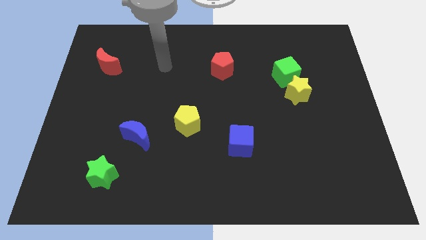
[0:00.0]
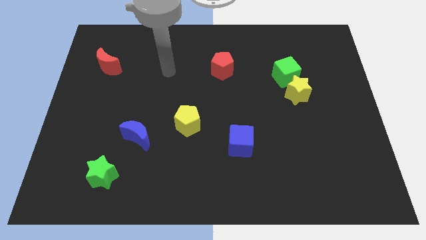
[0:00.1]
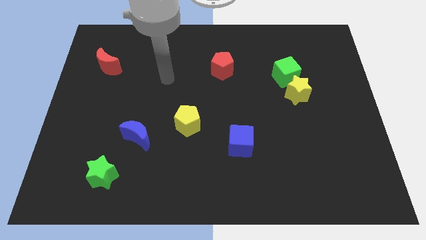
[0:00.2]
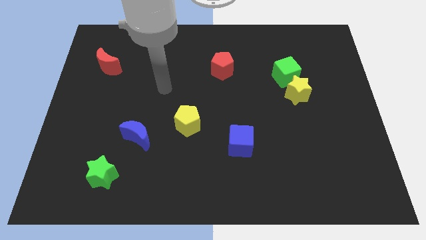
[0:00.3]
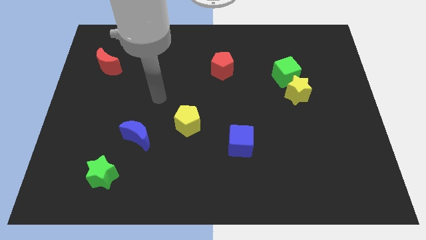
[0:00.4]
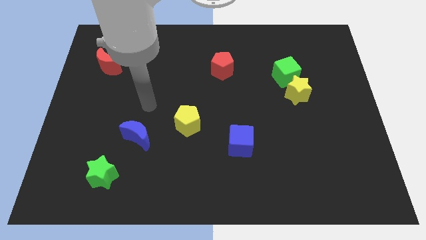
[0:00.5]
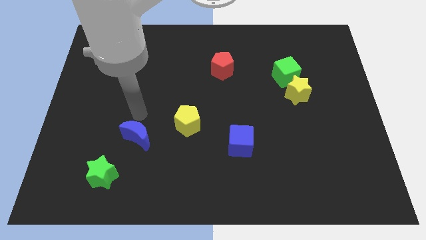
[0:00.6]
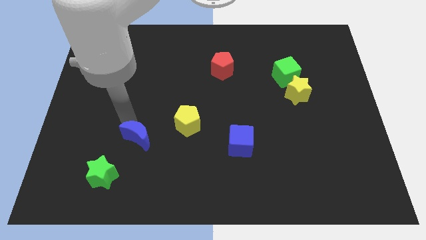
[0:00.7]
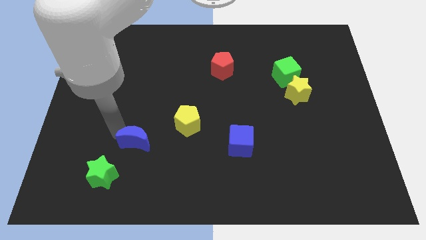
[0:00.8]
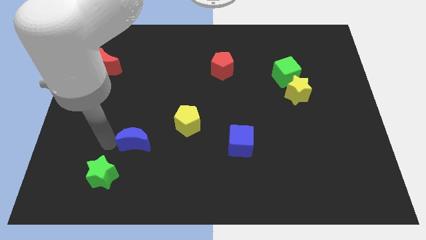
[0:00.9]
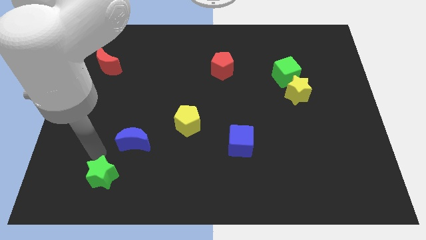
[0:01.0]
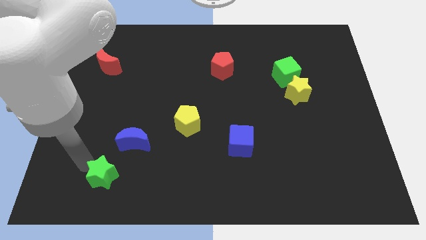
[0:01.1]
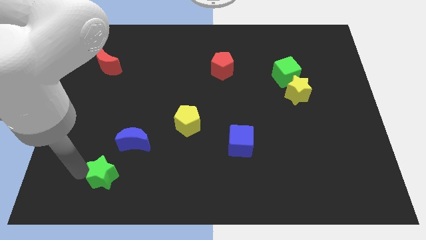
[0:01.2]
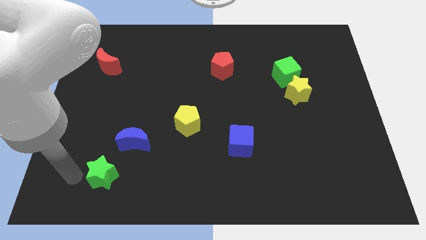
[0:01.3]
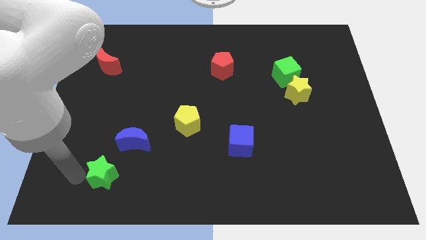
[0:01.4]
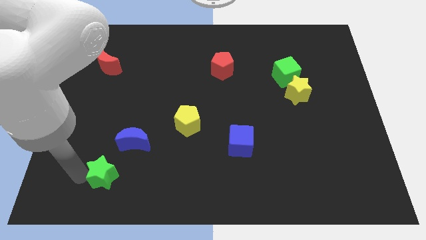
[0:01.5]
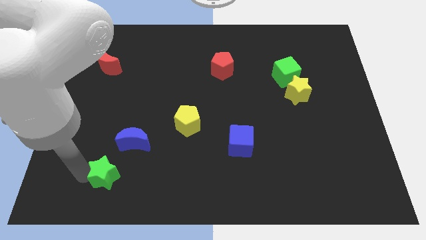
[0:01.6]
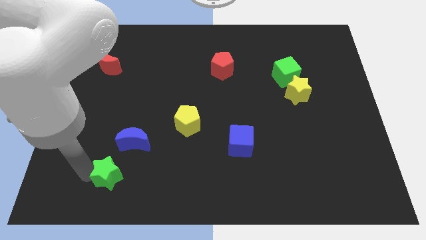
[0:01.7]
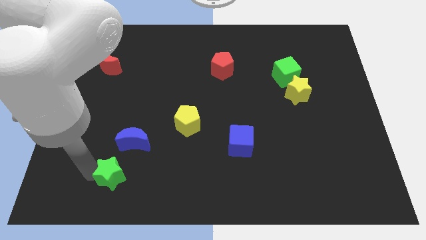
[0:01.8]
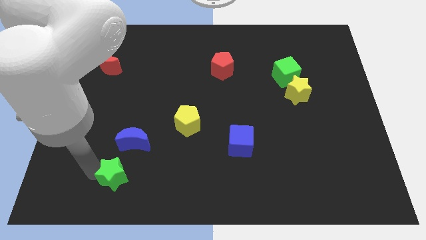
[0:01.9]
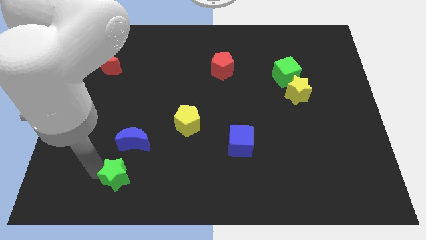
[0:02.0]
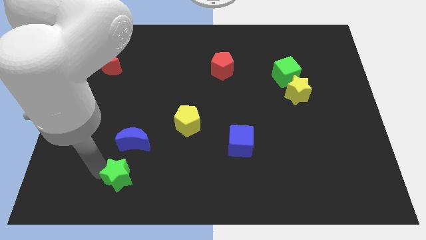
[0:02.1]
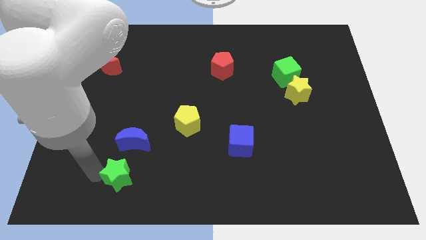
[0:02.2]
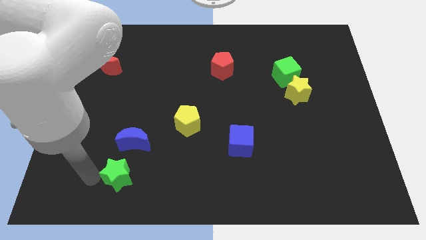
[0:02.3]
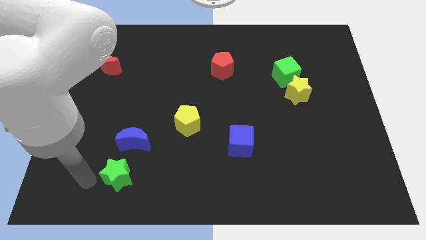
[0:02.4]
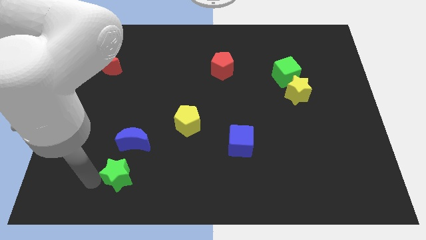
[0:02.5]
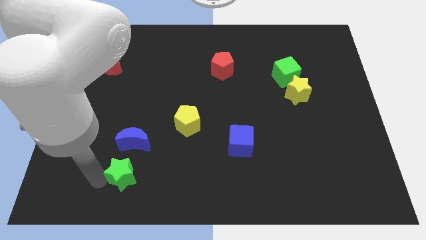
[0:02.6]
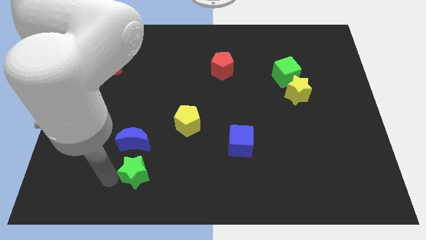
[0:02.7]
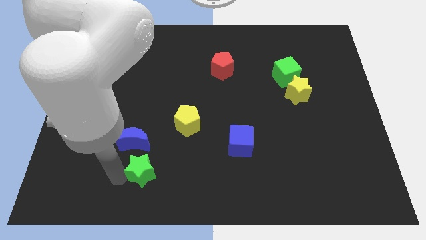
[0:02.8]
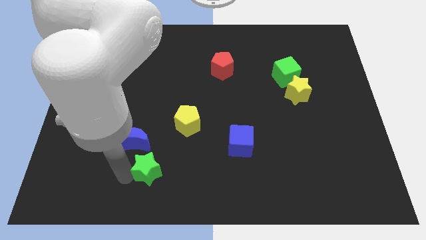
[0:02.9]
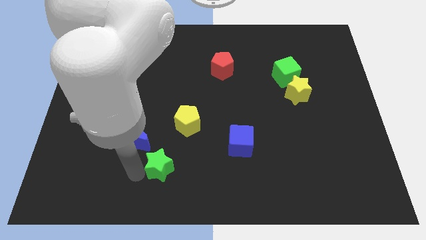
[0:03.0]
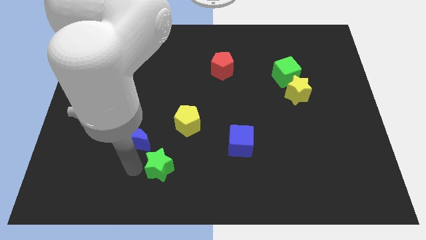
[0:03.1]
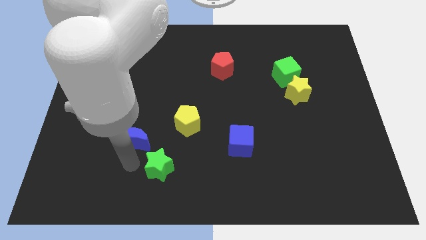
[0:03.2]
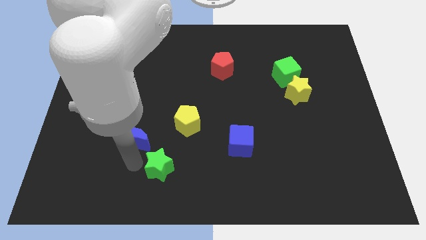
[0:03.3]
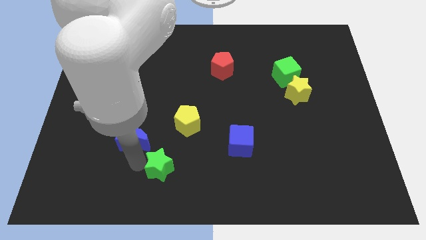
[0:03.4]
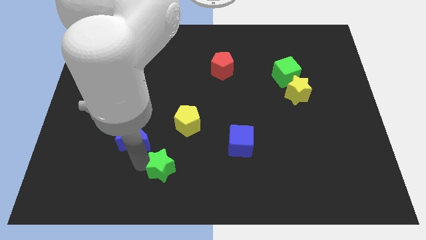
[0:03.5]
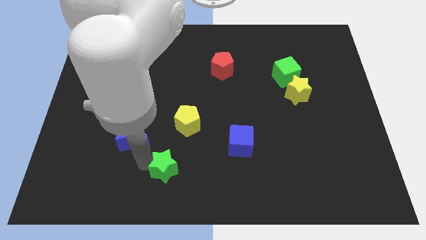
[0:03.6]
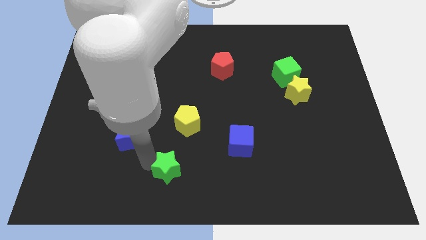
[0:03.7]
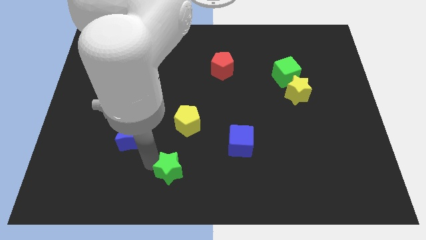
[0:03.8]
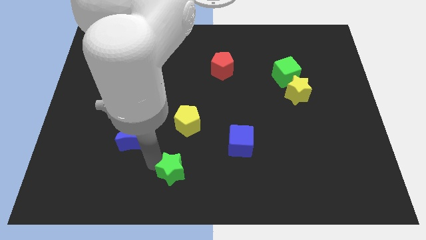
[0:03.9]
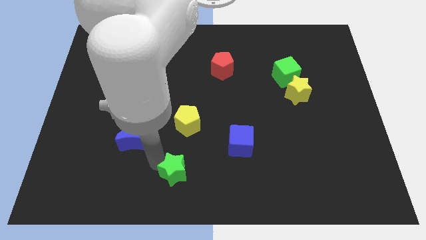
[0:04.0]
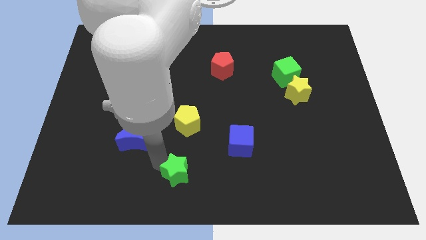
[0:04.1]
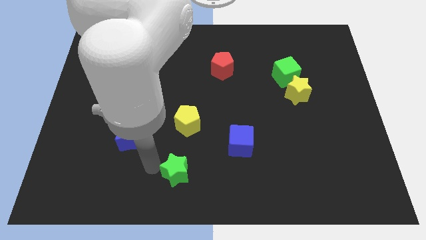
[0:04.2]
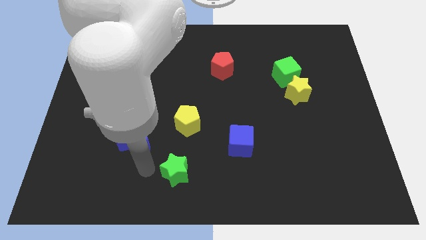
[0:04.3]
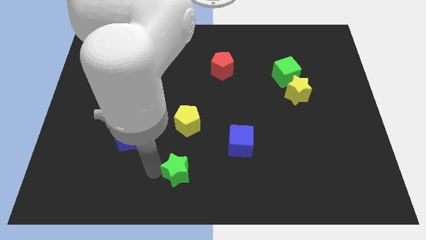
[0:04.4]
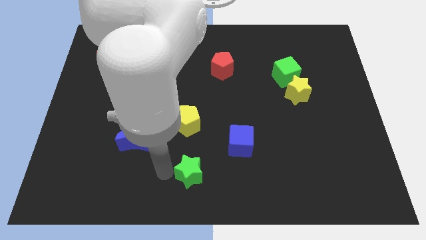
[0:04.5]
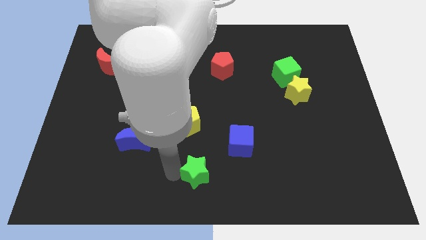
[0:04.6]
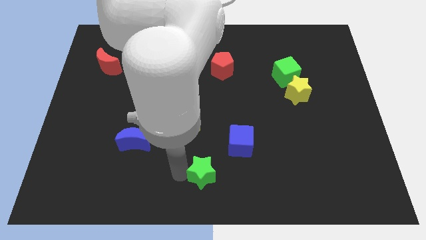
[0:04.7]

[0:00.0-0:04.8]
push the green star to the right

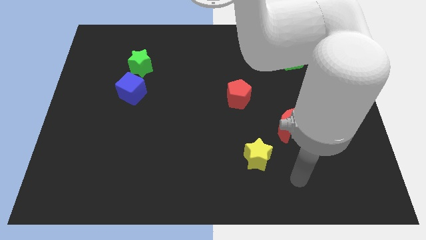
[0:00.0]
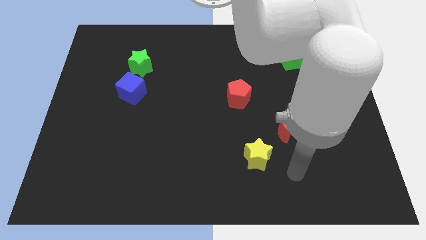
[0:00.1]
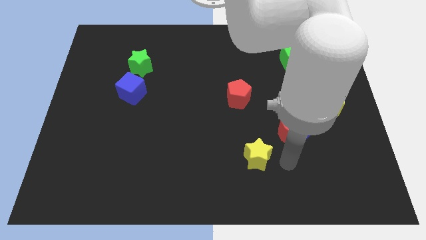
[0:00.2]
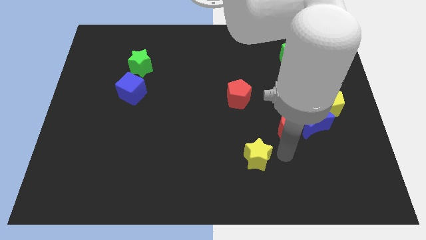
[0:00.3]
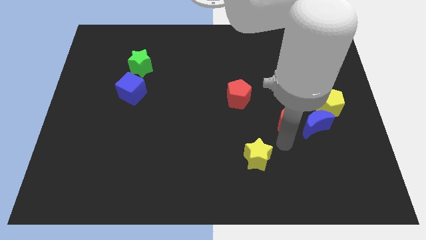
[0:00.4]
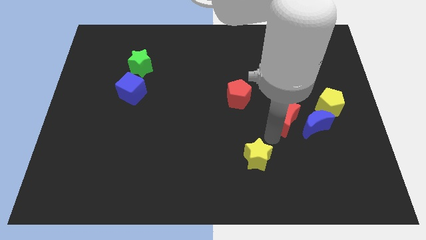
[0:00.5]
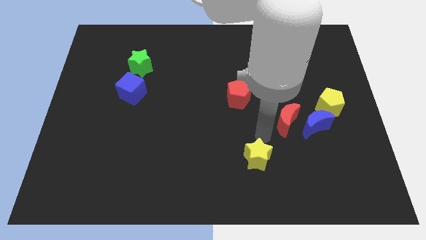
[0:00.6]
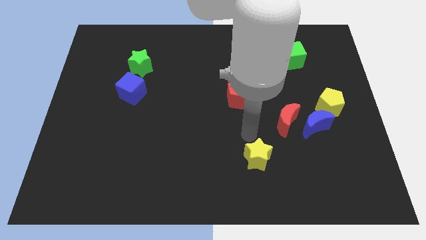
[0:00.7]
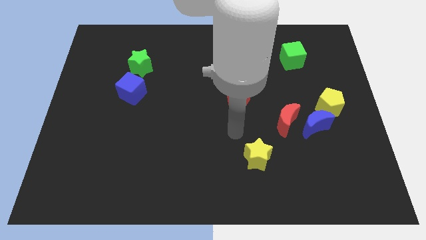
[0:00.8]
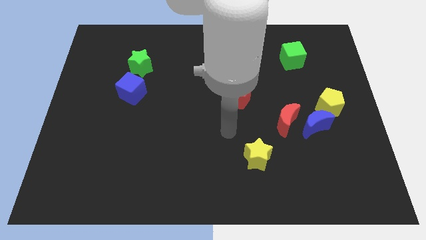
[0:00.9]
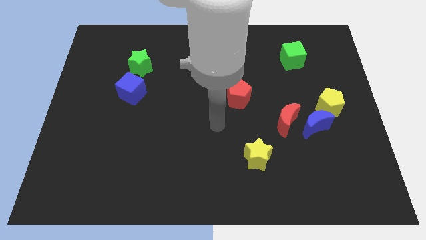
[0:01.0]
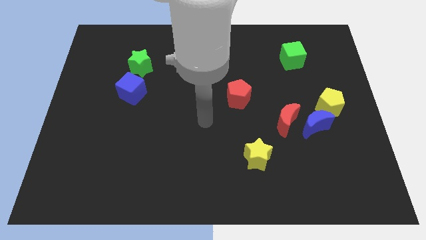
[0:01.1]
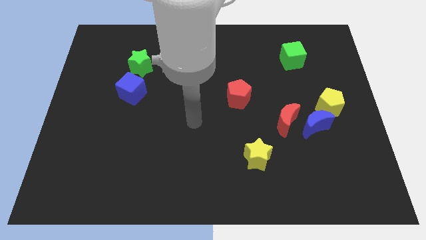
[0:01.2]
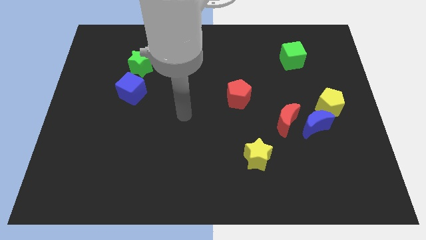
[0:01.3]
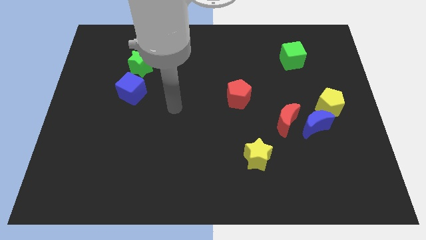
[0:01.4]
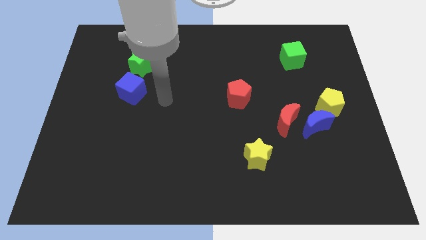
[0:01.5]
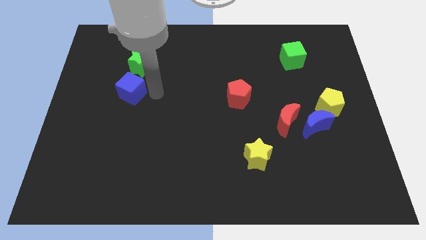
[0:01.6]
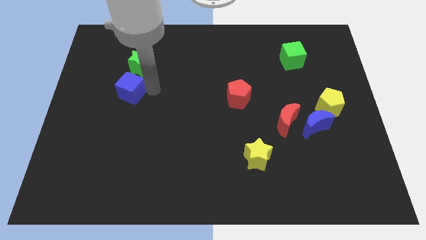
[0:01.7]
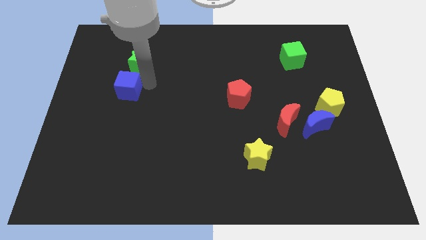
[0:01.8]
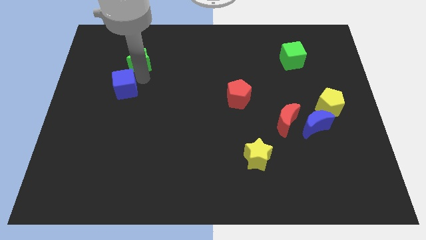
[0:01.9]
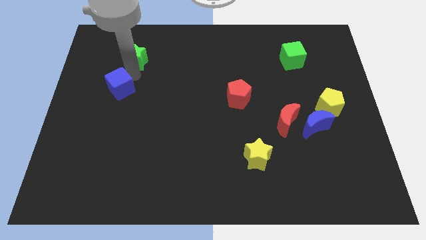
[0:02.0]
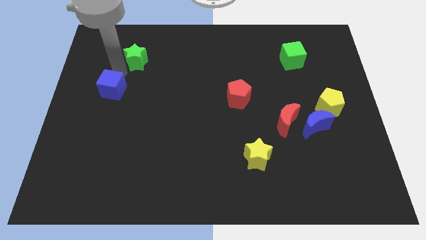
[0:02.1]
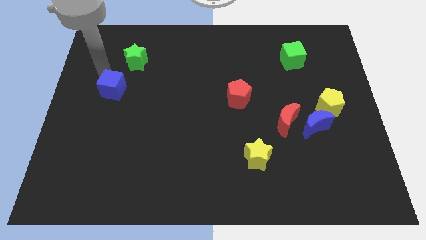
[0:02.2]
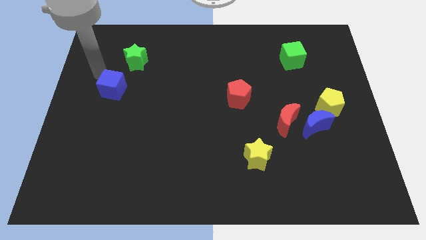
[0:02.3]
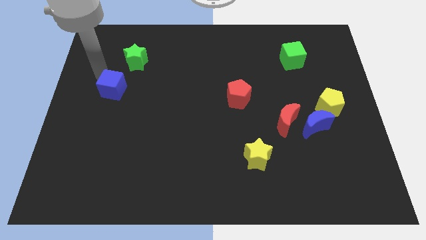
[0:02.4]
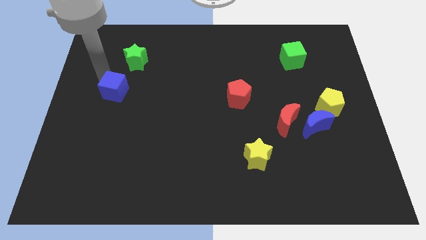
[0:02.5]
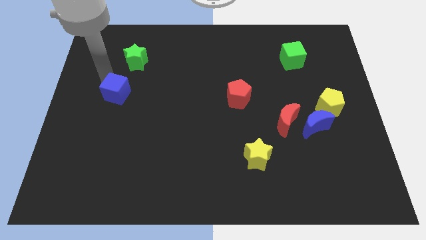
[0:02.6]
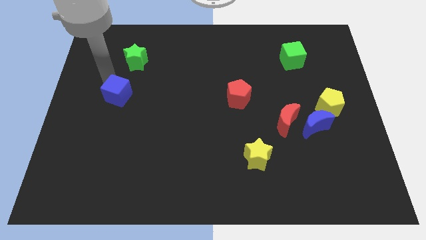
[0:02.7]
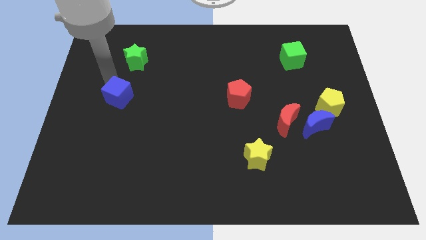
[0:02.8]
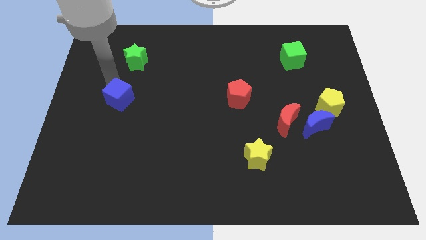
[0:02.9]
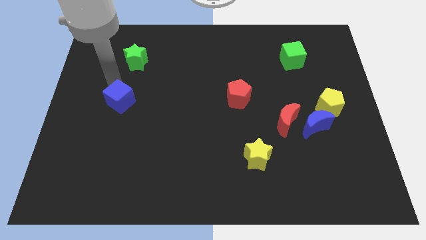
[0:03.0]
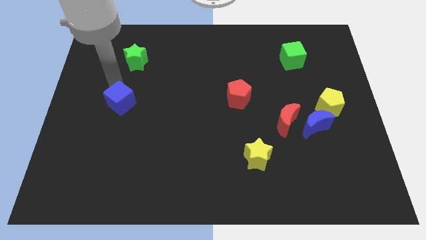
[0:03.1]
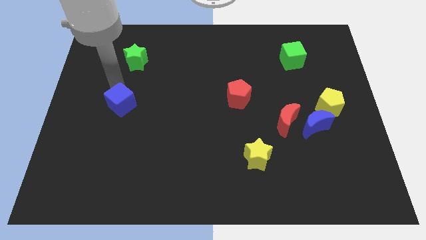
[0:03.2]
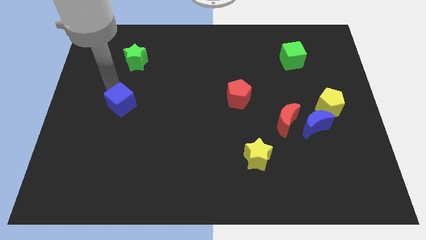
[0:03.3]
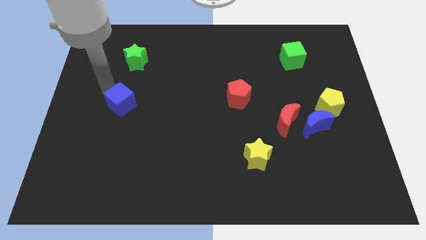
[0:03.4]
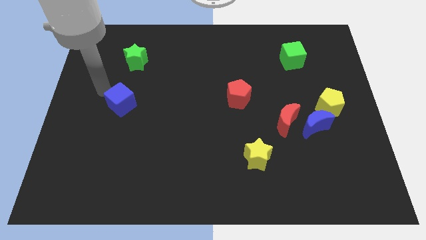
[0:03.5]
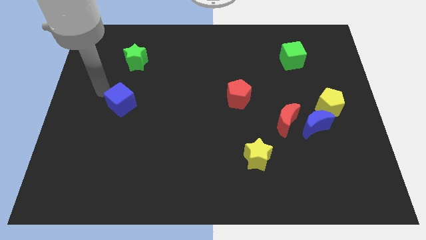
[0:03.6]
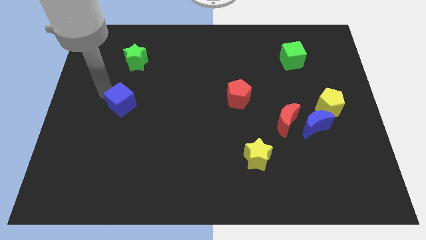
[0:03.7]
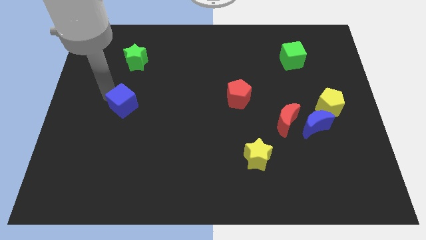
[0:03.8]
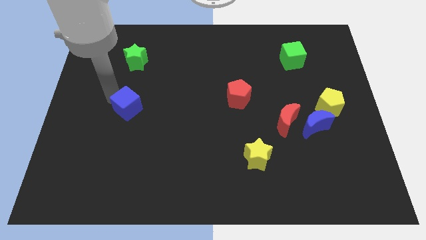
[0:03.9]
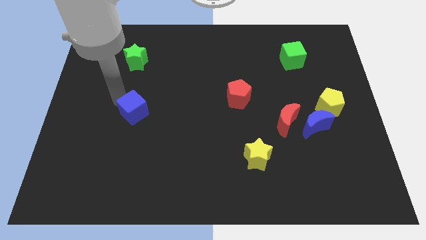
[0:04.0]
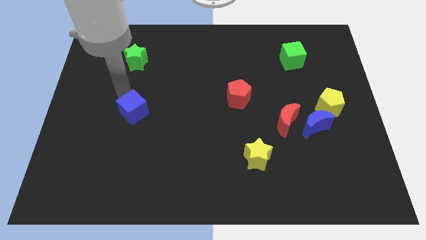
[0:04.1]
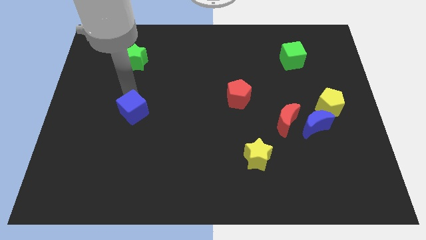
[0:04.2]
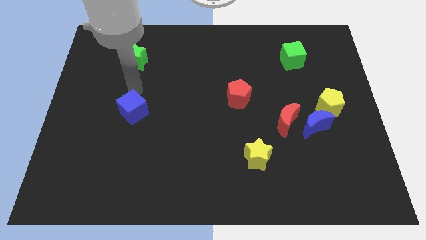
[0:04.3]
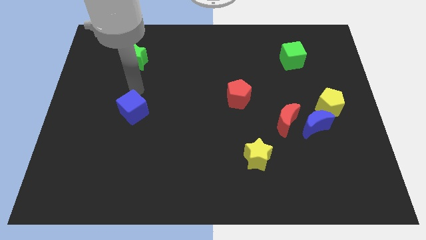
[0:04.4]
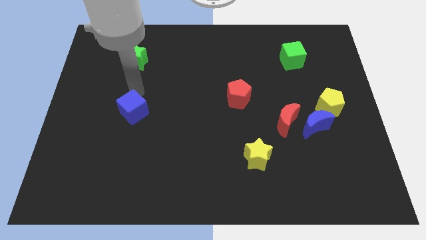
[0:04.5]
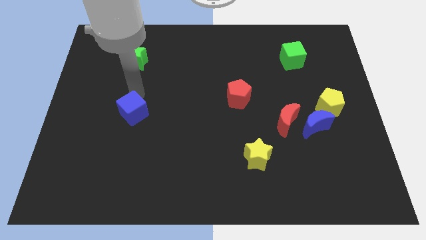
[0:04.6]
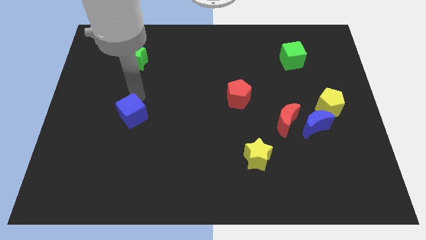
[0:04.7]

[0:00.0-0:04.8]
push the blue cube down a bit
